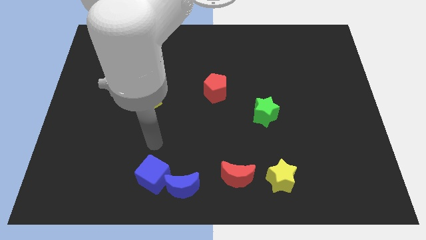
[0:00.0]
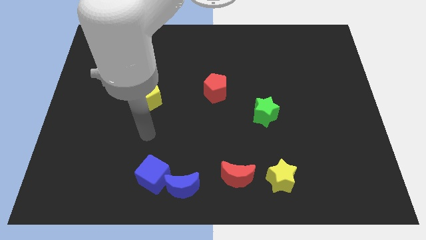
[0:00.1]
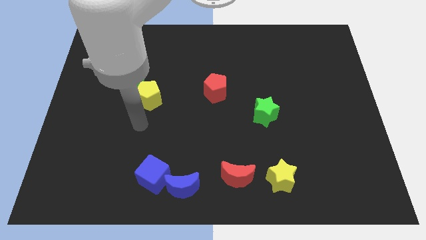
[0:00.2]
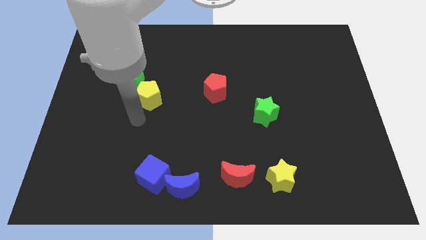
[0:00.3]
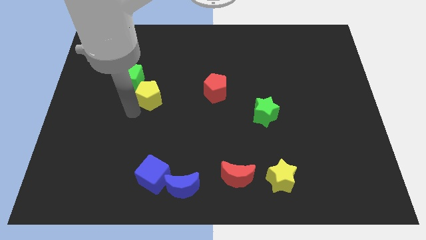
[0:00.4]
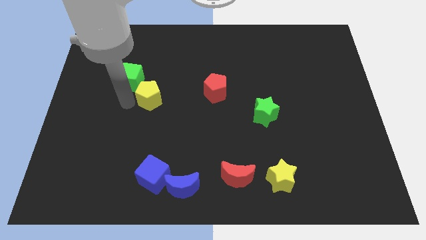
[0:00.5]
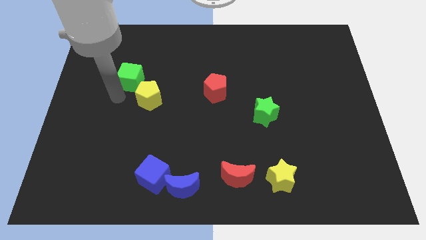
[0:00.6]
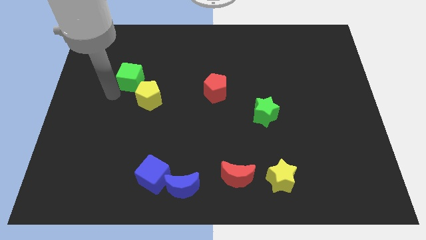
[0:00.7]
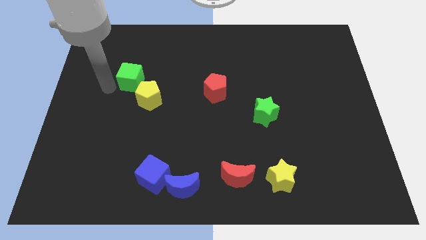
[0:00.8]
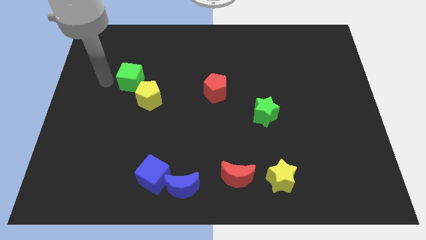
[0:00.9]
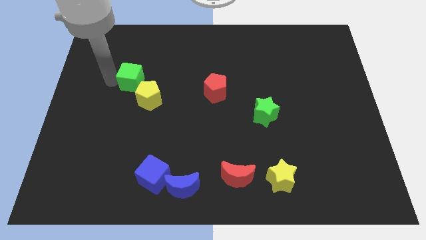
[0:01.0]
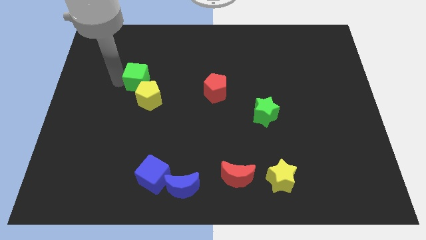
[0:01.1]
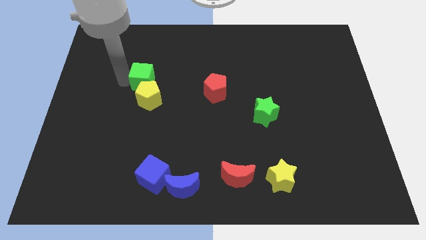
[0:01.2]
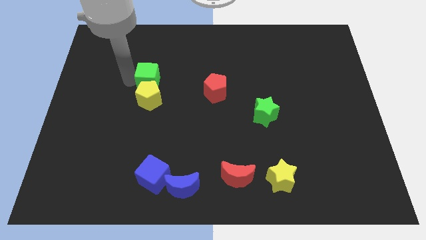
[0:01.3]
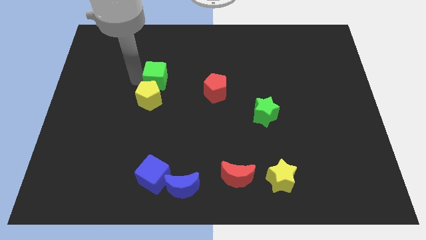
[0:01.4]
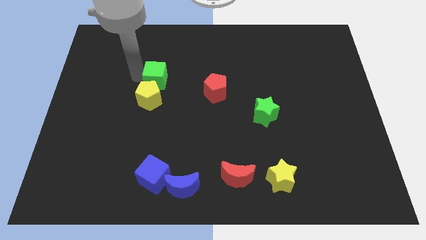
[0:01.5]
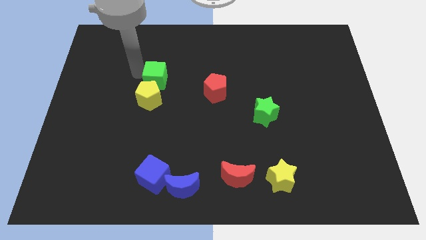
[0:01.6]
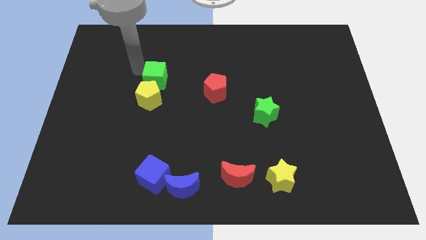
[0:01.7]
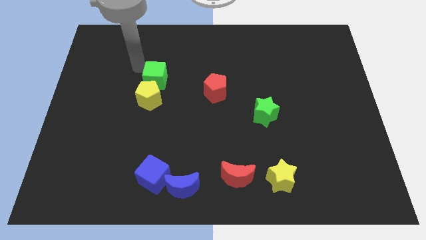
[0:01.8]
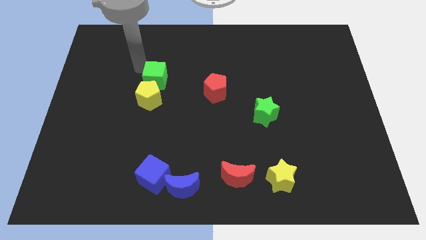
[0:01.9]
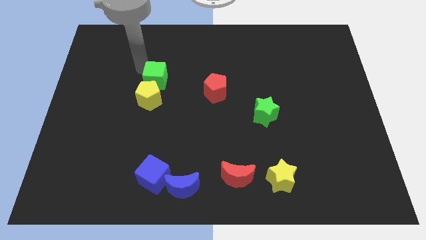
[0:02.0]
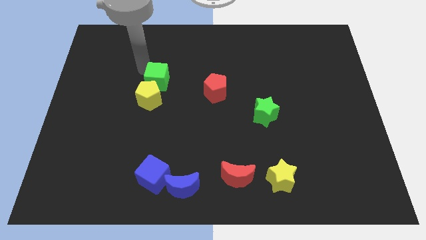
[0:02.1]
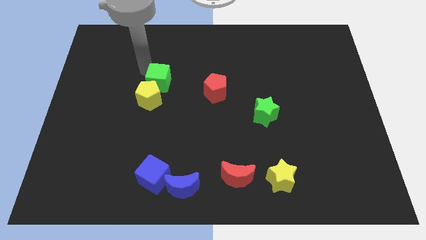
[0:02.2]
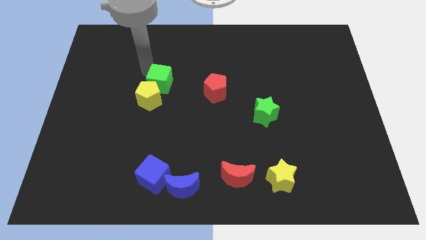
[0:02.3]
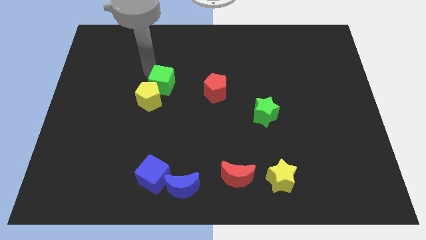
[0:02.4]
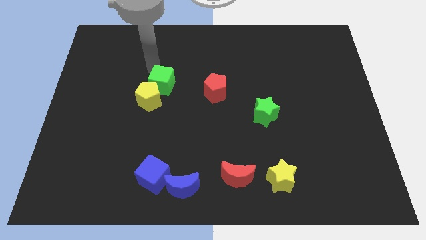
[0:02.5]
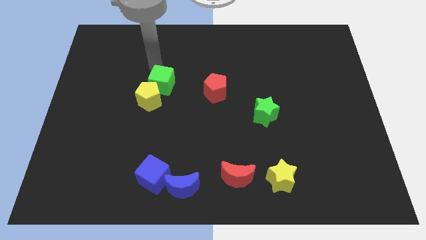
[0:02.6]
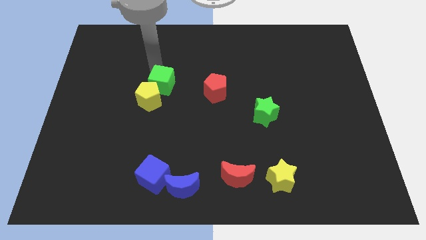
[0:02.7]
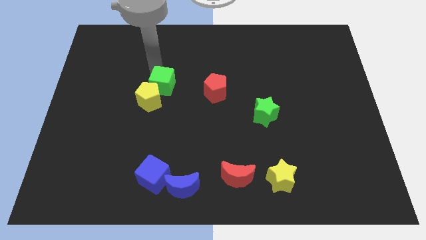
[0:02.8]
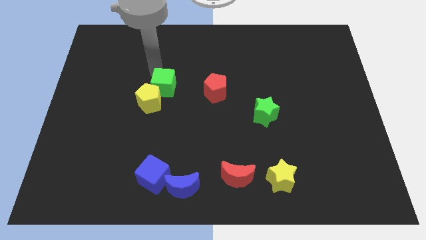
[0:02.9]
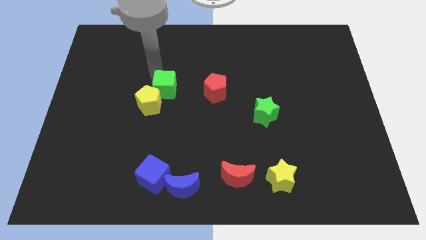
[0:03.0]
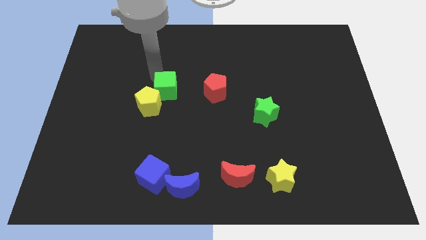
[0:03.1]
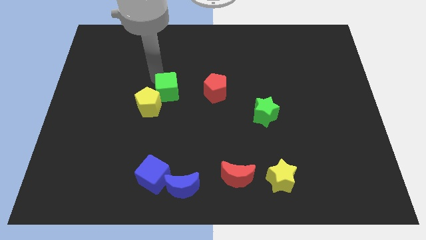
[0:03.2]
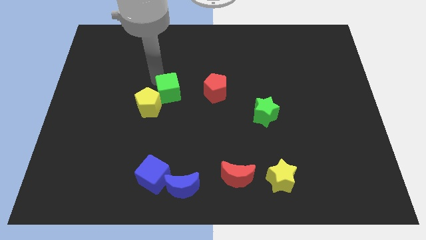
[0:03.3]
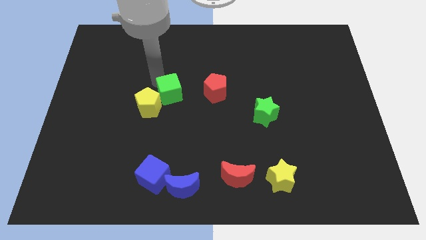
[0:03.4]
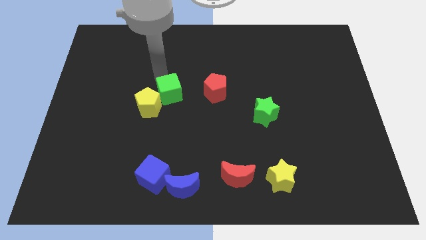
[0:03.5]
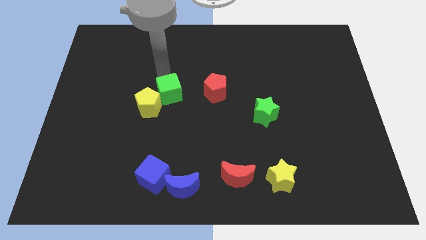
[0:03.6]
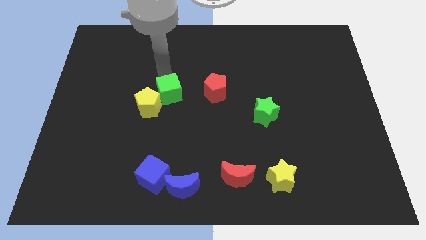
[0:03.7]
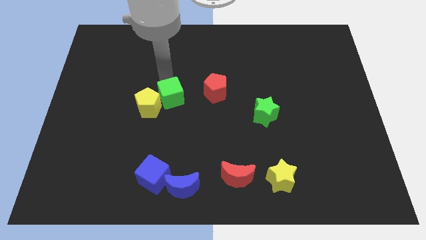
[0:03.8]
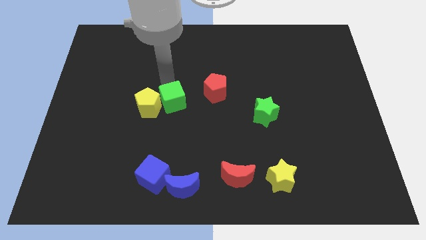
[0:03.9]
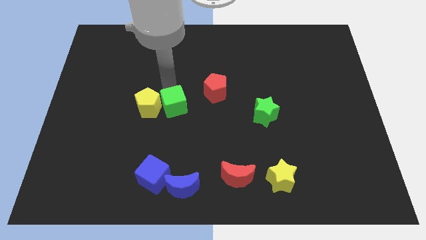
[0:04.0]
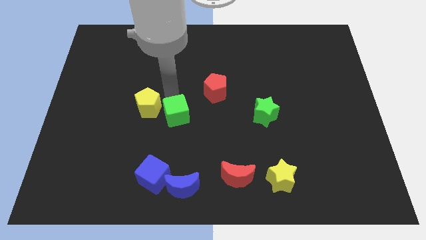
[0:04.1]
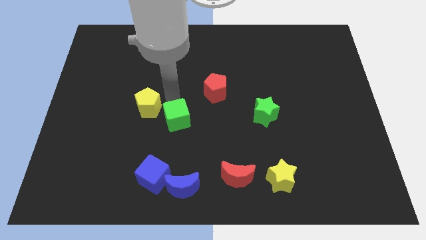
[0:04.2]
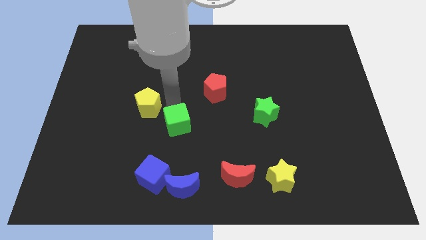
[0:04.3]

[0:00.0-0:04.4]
slide the green cube to the top of the blue moon

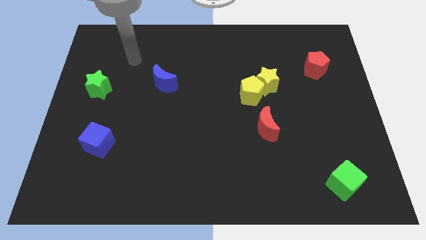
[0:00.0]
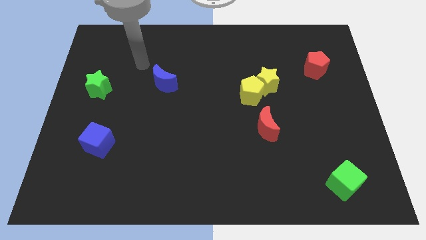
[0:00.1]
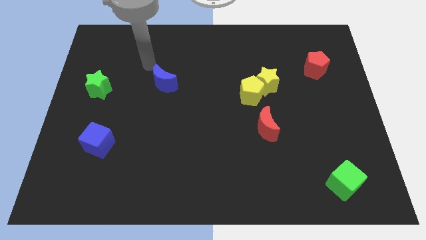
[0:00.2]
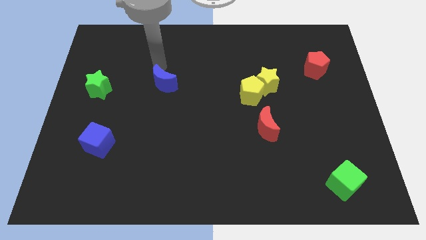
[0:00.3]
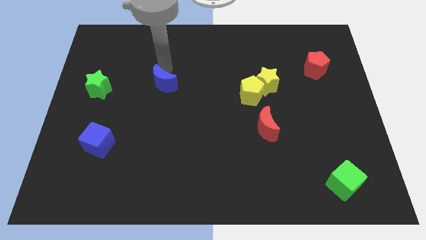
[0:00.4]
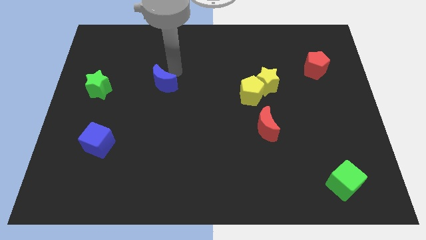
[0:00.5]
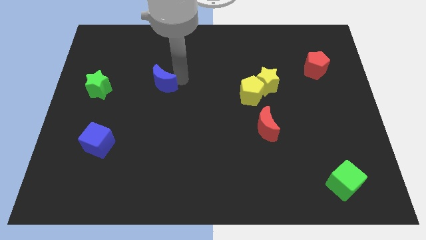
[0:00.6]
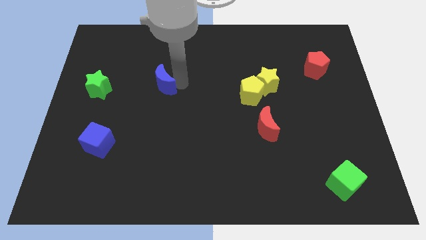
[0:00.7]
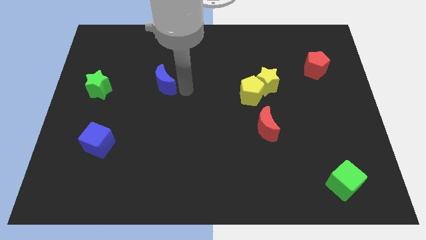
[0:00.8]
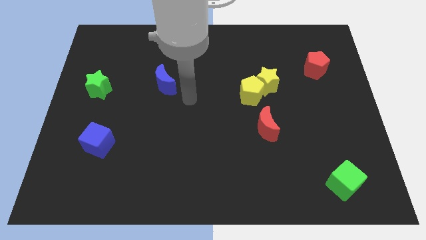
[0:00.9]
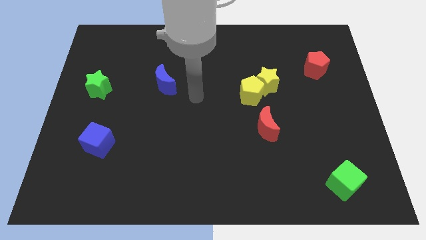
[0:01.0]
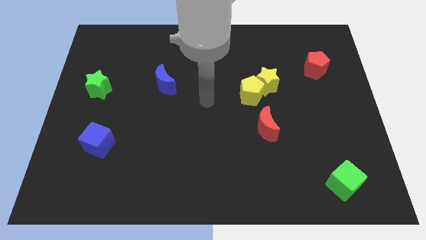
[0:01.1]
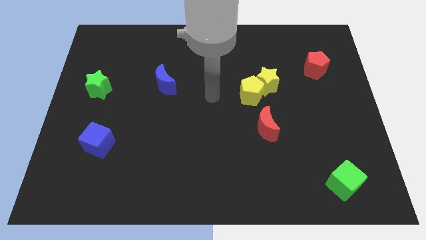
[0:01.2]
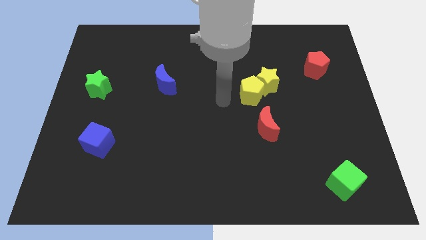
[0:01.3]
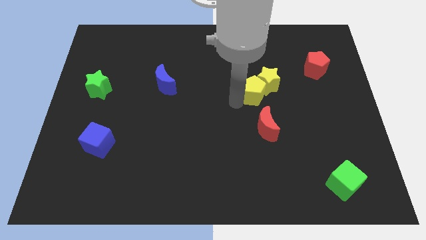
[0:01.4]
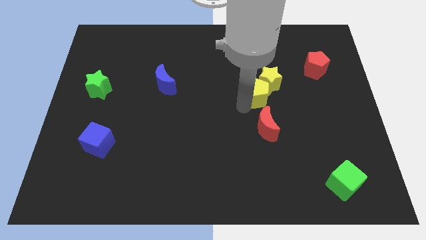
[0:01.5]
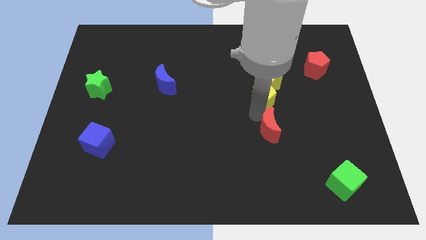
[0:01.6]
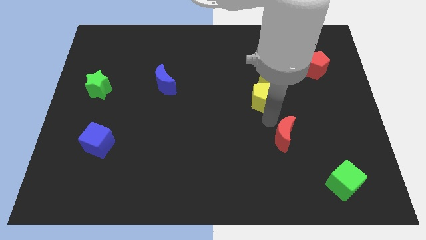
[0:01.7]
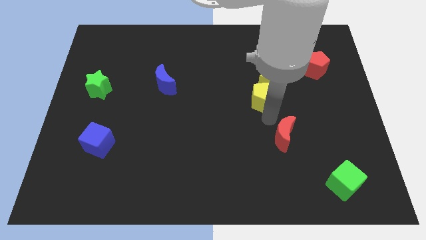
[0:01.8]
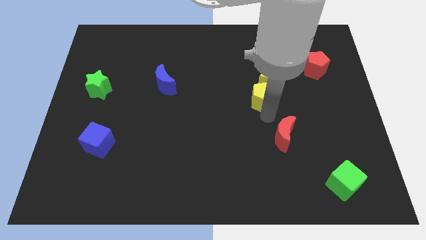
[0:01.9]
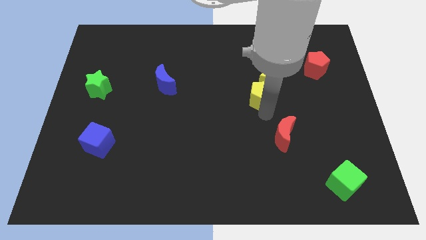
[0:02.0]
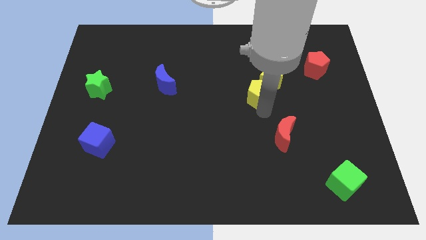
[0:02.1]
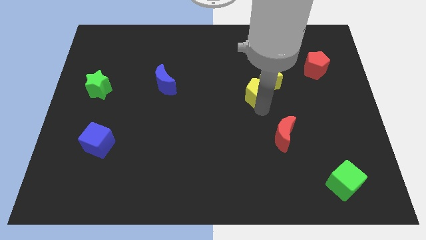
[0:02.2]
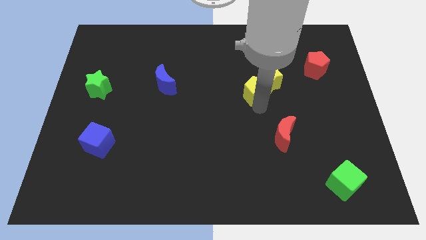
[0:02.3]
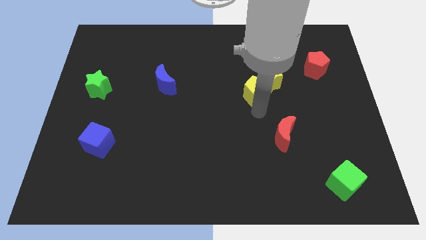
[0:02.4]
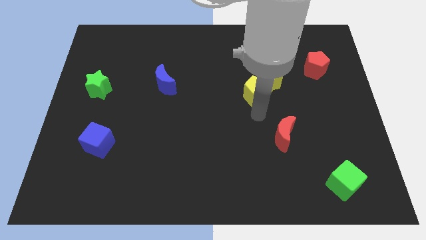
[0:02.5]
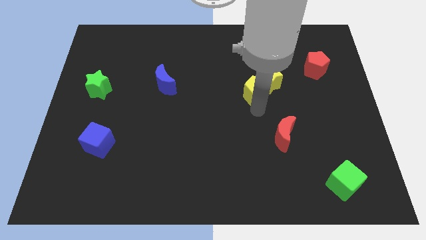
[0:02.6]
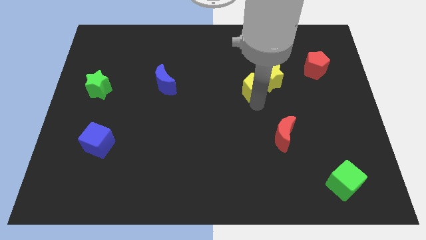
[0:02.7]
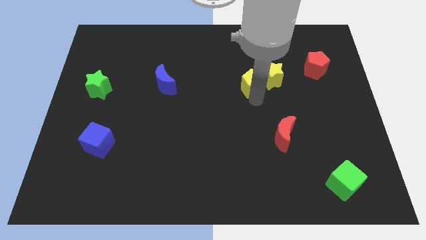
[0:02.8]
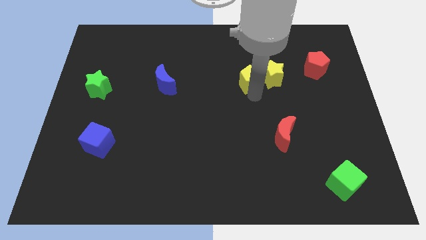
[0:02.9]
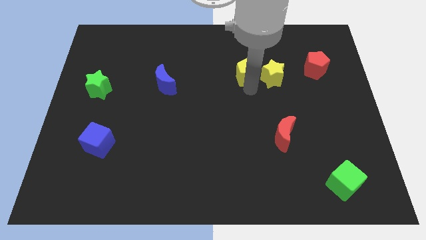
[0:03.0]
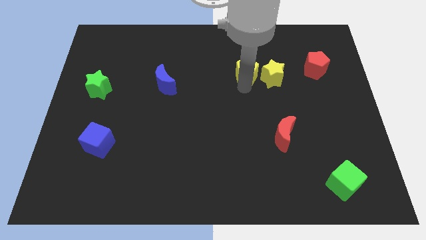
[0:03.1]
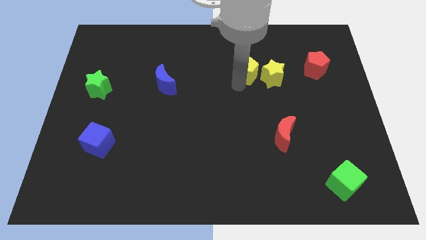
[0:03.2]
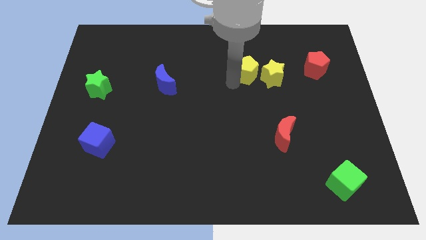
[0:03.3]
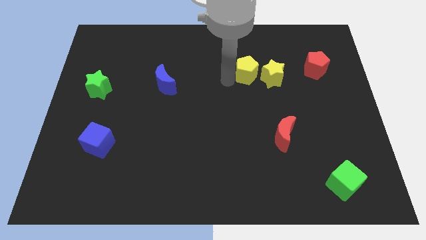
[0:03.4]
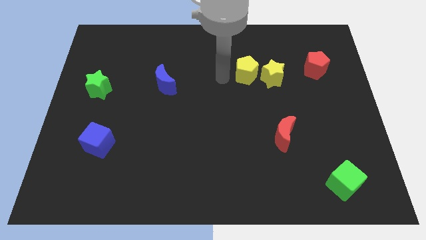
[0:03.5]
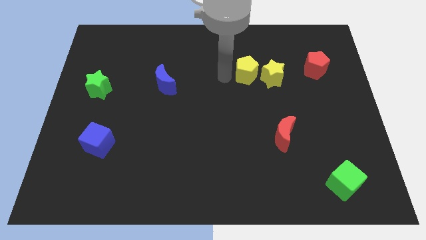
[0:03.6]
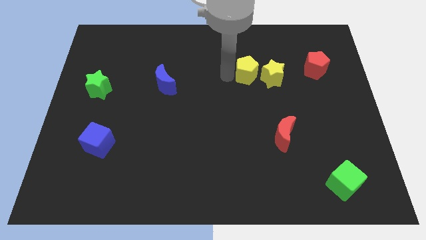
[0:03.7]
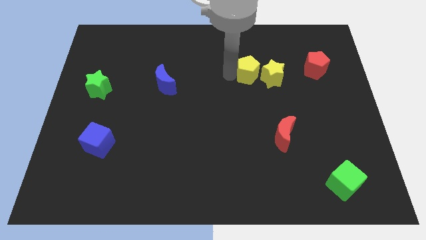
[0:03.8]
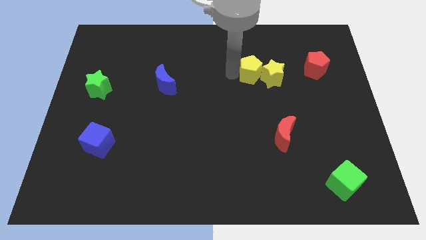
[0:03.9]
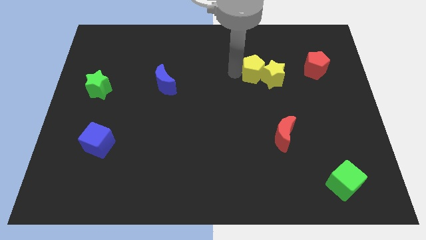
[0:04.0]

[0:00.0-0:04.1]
move the yellow pentagon just left of the red pentagon
